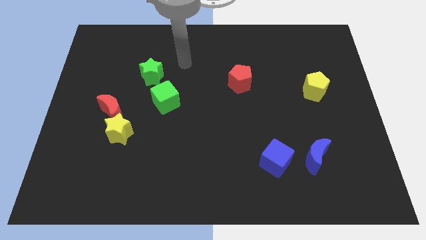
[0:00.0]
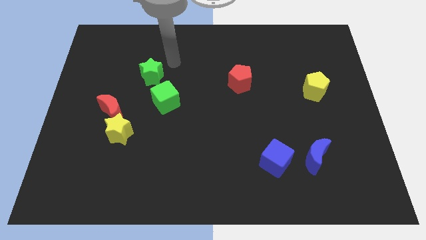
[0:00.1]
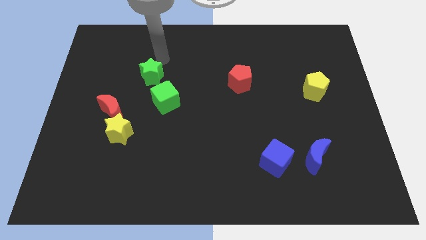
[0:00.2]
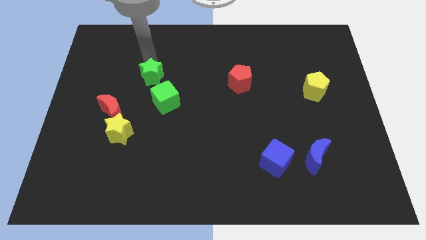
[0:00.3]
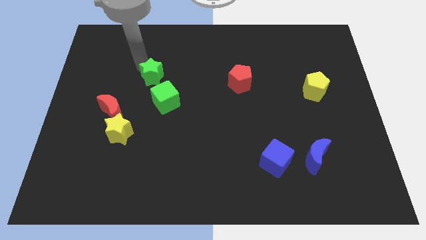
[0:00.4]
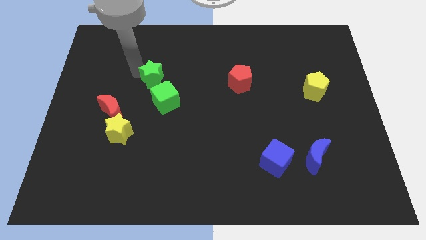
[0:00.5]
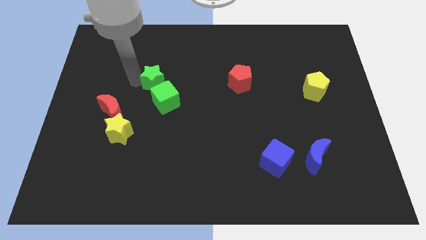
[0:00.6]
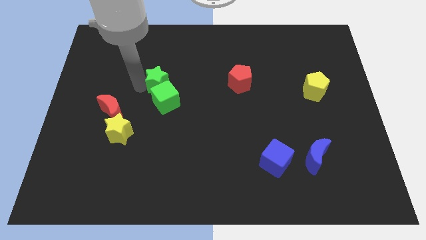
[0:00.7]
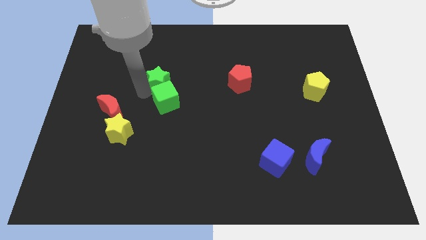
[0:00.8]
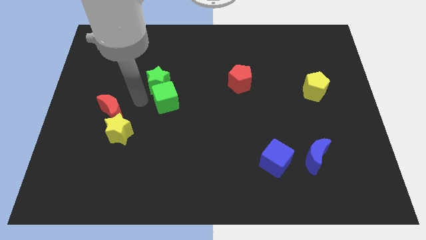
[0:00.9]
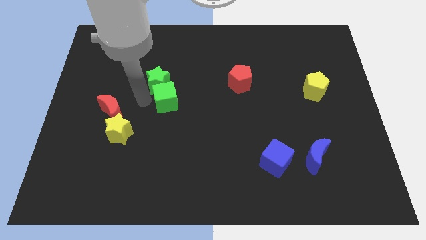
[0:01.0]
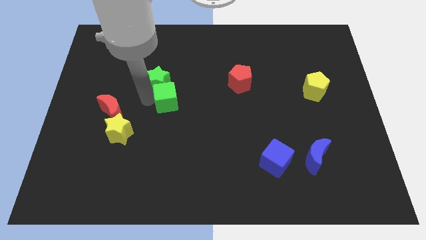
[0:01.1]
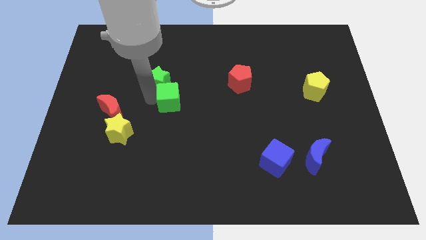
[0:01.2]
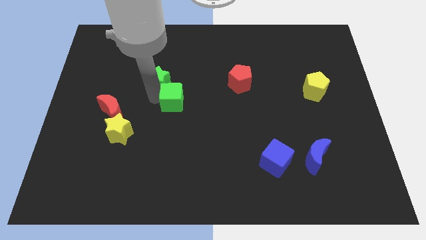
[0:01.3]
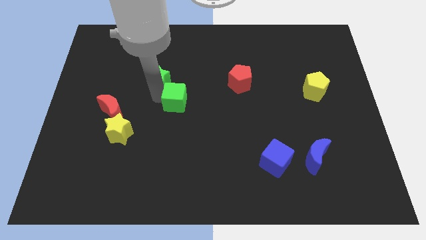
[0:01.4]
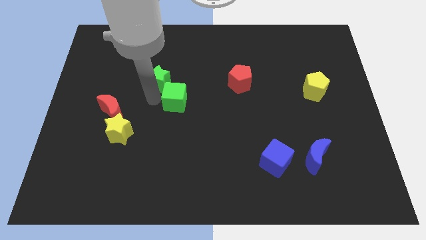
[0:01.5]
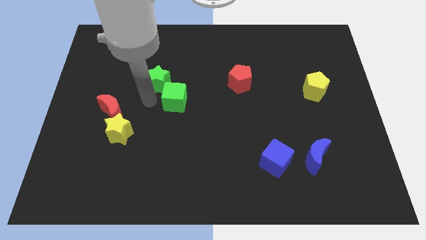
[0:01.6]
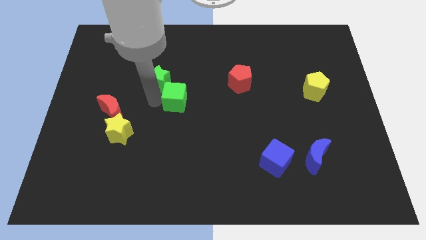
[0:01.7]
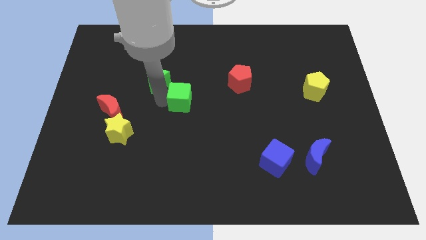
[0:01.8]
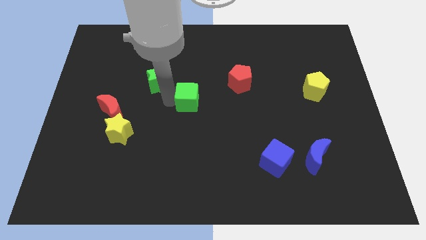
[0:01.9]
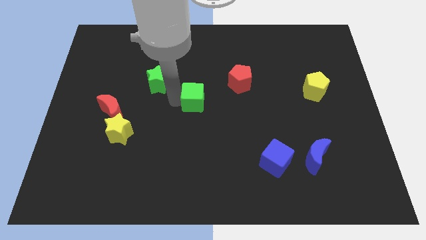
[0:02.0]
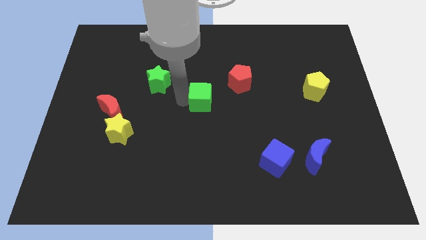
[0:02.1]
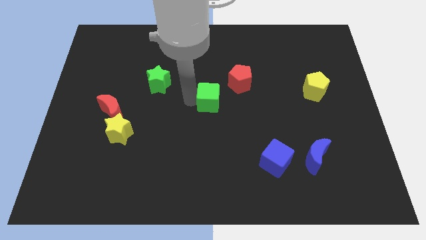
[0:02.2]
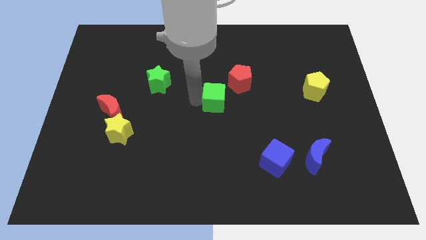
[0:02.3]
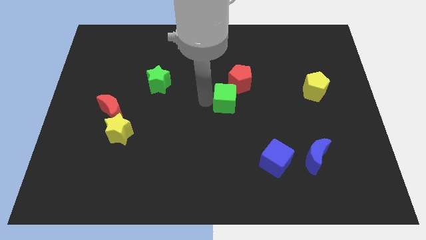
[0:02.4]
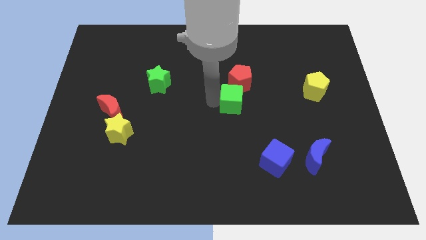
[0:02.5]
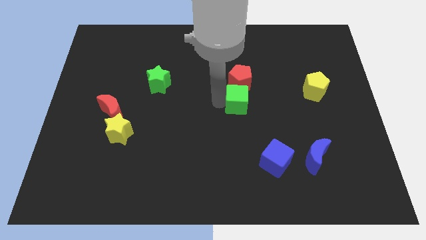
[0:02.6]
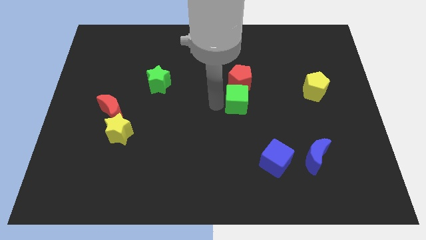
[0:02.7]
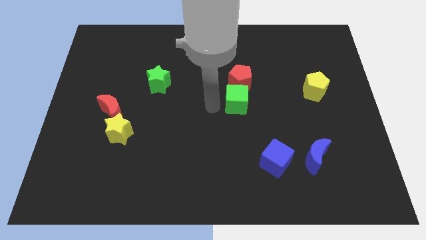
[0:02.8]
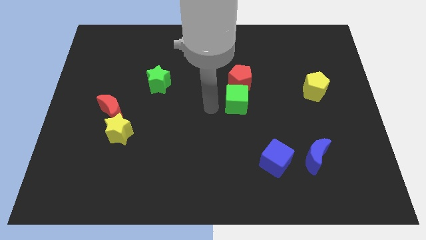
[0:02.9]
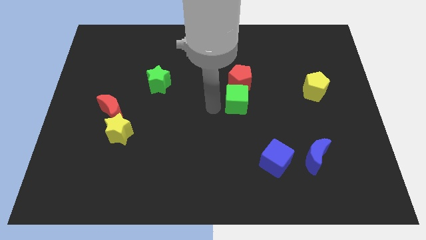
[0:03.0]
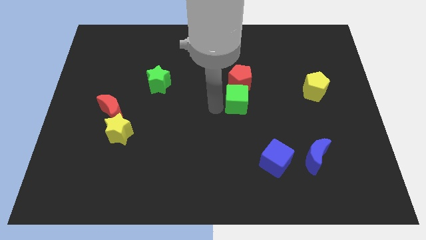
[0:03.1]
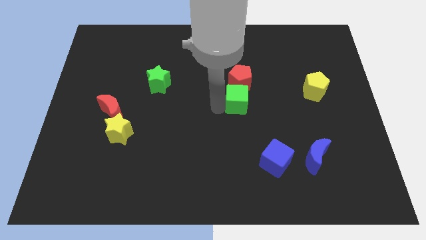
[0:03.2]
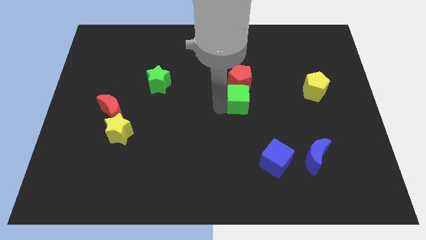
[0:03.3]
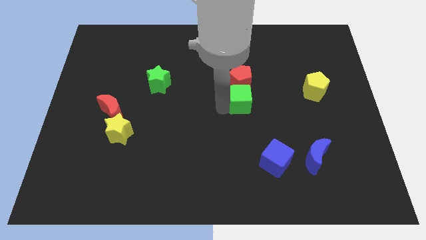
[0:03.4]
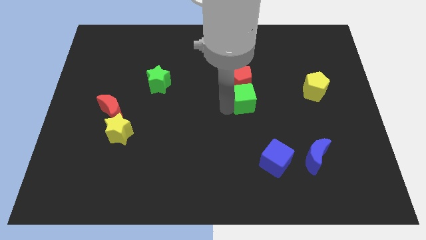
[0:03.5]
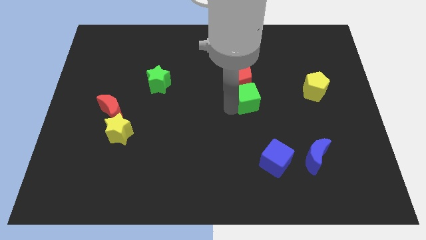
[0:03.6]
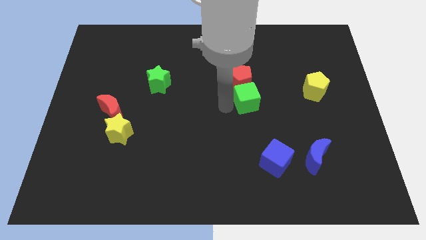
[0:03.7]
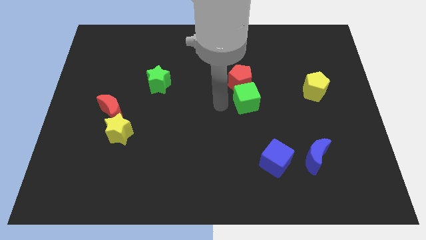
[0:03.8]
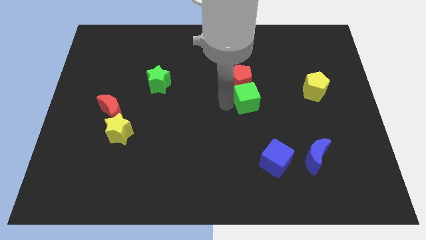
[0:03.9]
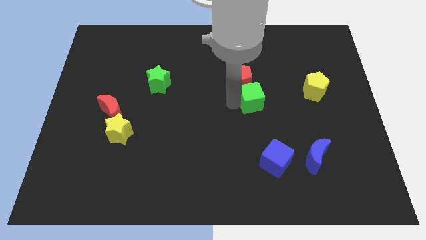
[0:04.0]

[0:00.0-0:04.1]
push the green cube to the right

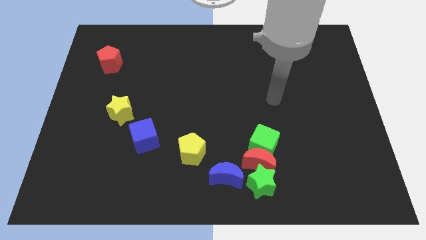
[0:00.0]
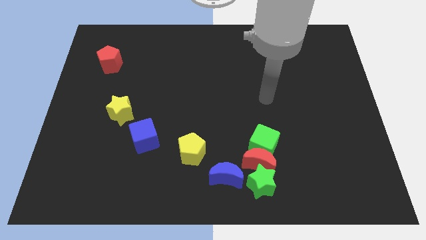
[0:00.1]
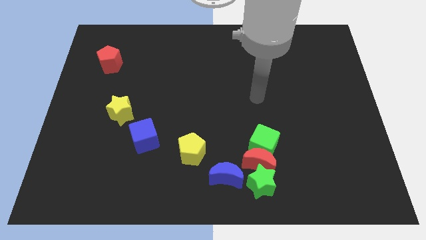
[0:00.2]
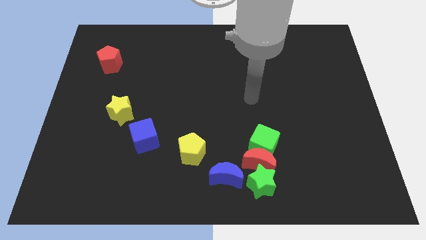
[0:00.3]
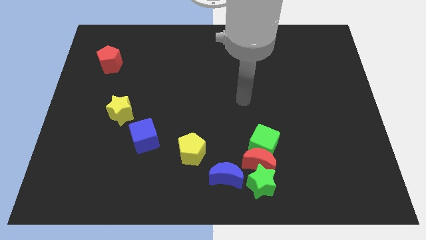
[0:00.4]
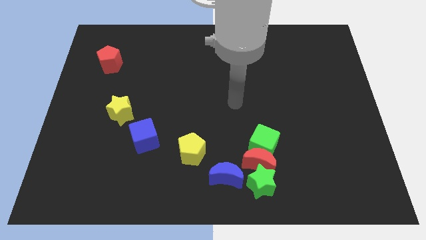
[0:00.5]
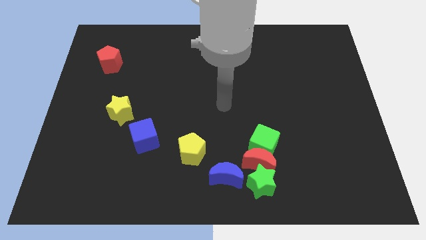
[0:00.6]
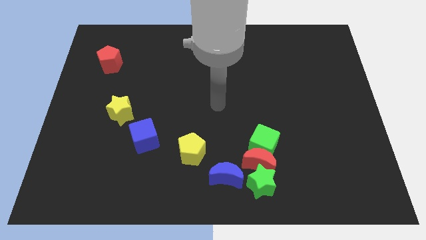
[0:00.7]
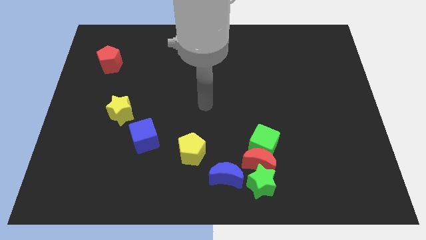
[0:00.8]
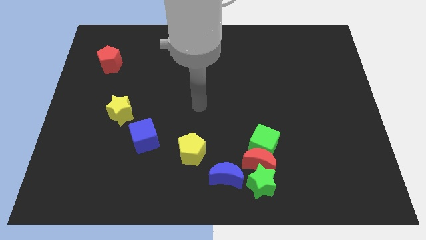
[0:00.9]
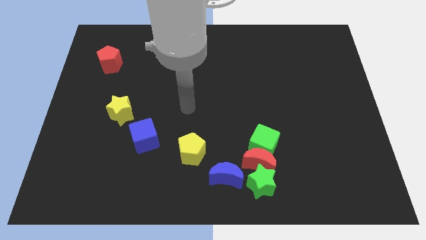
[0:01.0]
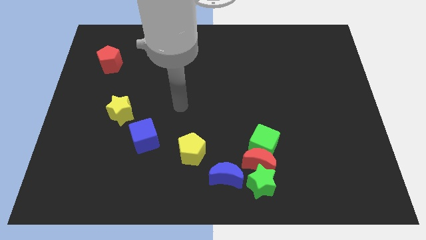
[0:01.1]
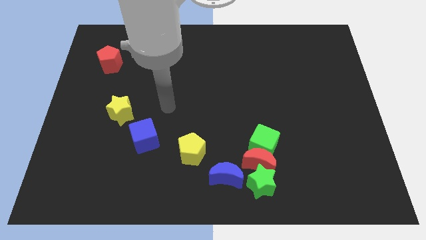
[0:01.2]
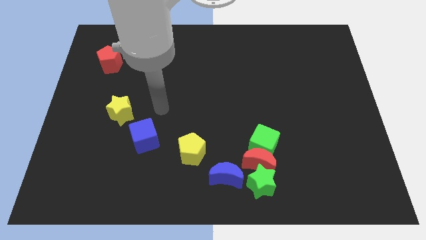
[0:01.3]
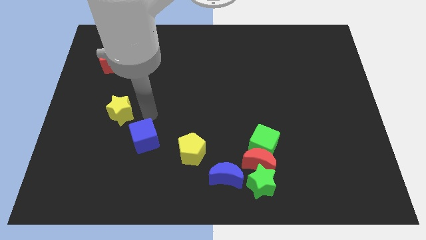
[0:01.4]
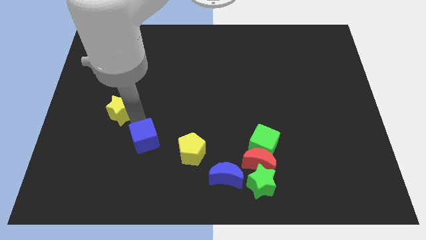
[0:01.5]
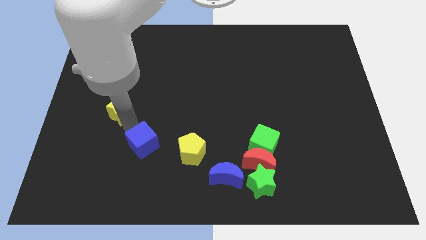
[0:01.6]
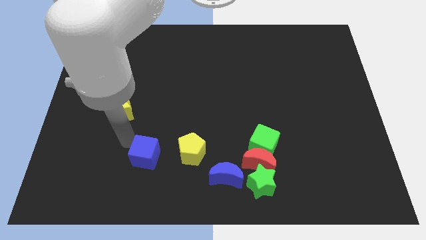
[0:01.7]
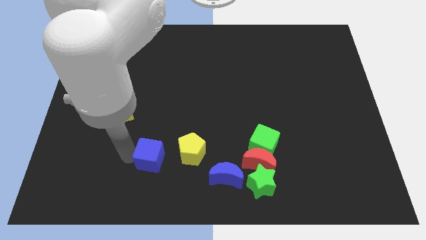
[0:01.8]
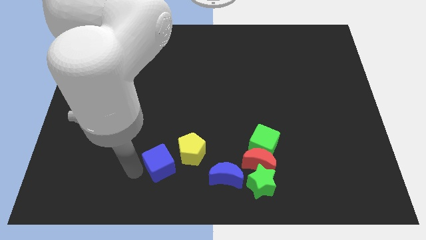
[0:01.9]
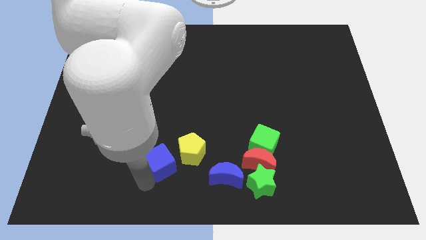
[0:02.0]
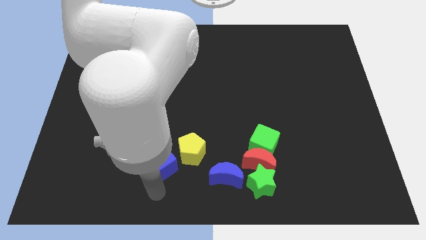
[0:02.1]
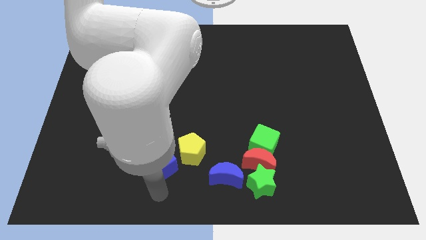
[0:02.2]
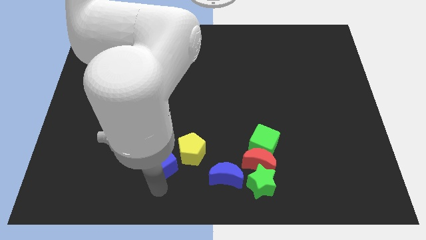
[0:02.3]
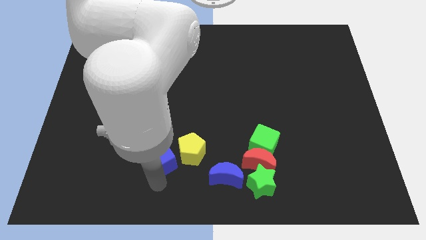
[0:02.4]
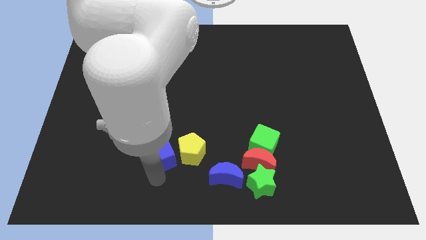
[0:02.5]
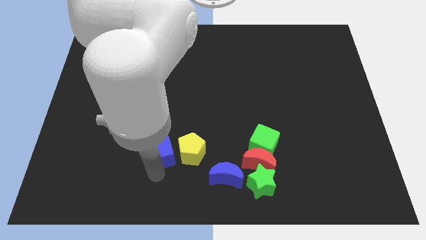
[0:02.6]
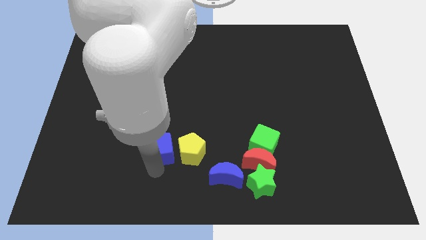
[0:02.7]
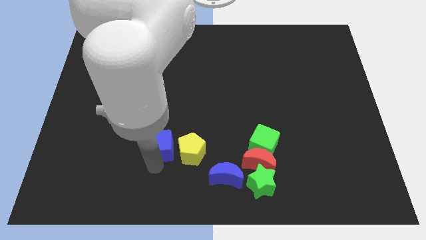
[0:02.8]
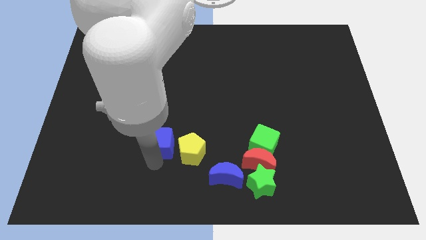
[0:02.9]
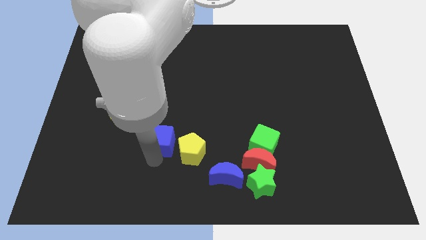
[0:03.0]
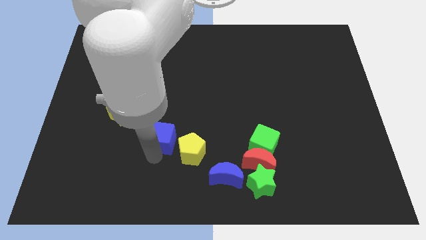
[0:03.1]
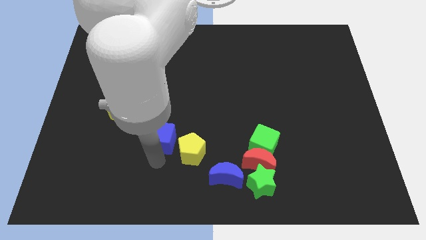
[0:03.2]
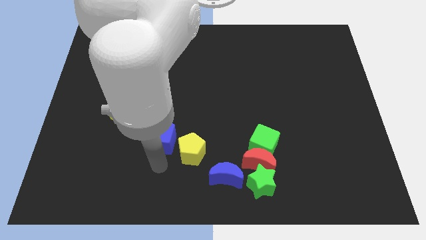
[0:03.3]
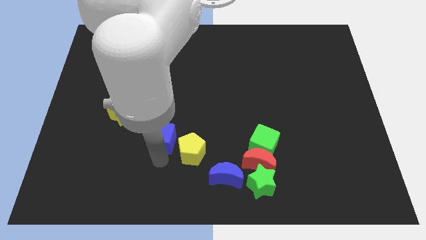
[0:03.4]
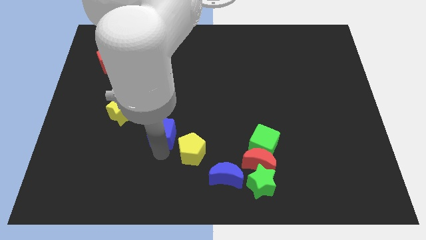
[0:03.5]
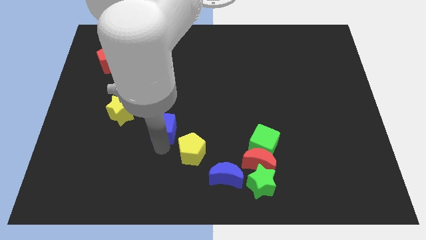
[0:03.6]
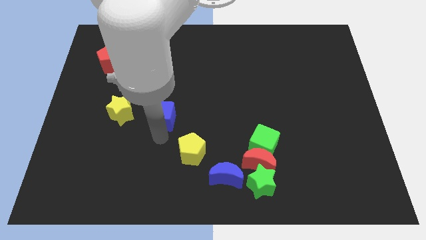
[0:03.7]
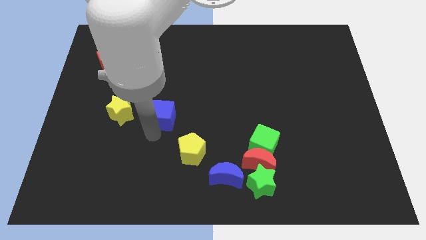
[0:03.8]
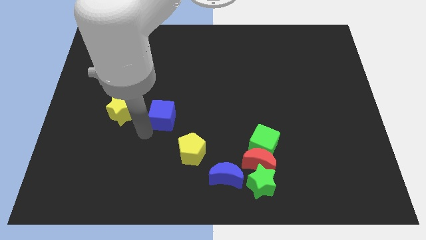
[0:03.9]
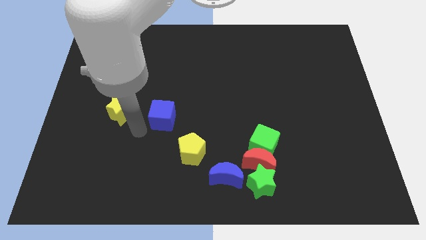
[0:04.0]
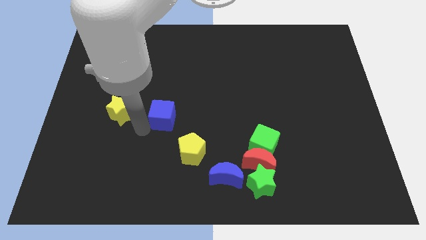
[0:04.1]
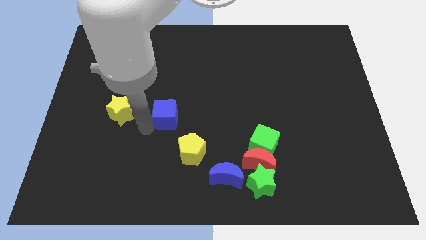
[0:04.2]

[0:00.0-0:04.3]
slightly push the blue cube up and then right
